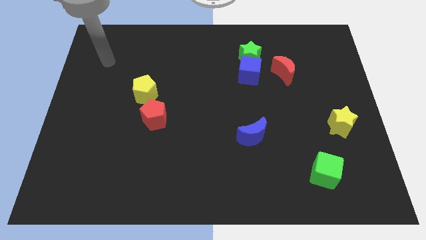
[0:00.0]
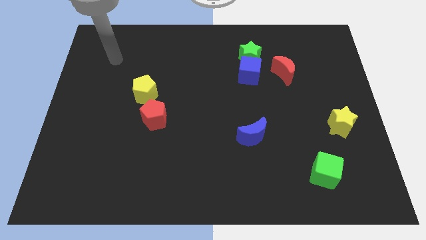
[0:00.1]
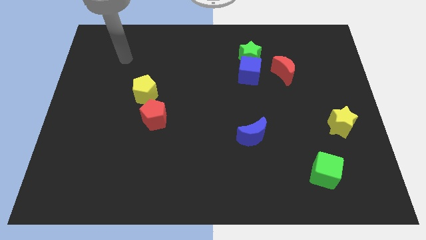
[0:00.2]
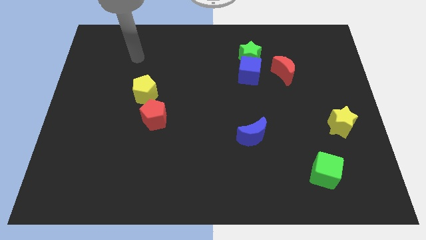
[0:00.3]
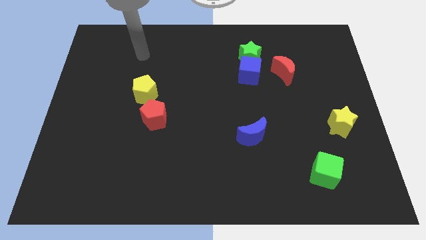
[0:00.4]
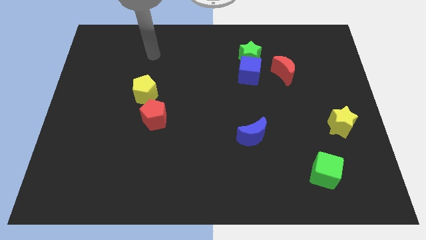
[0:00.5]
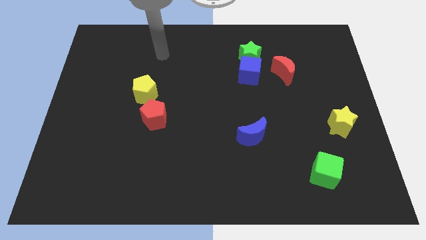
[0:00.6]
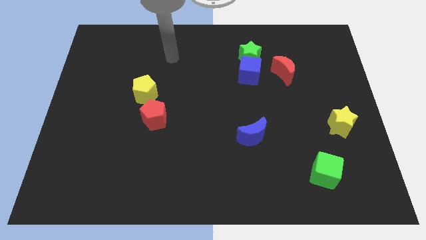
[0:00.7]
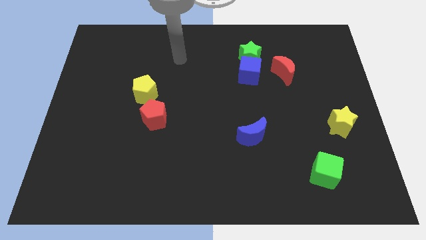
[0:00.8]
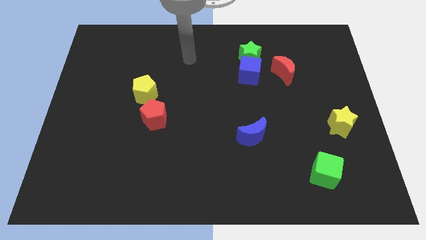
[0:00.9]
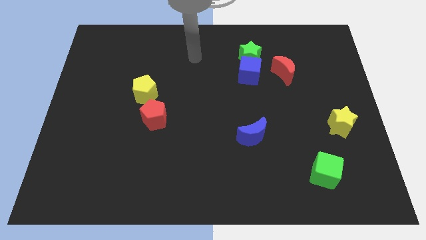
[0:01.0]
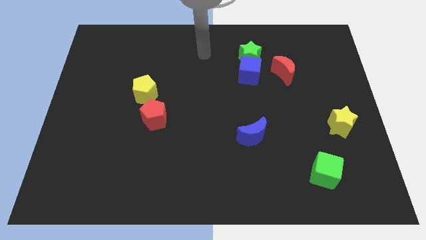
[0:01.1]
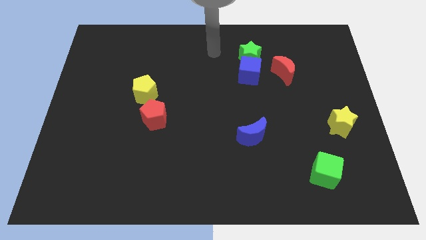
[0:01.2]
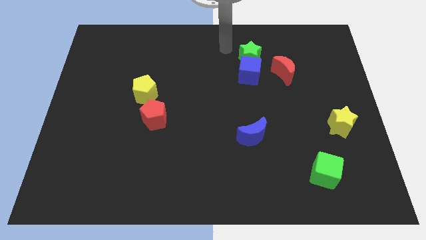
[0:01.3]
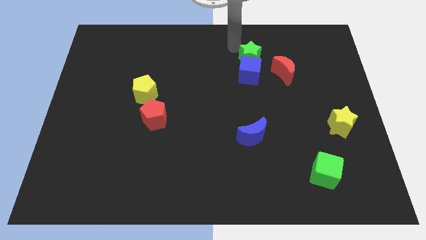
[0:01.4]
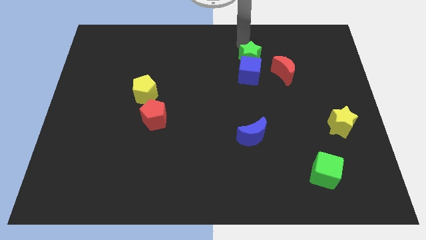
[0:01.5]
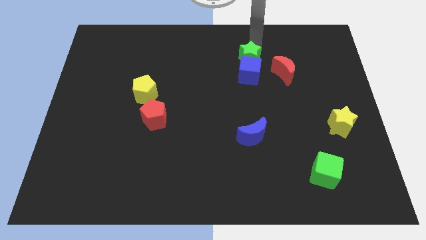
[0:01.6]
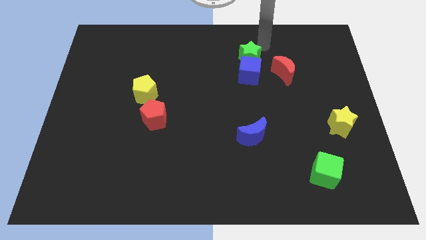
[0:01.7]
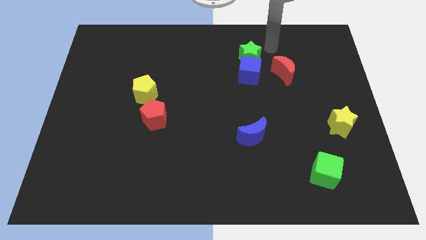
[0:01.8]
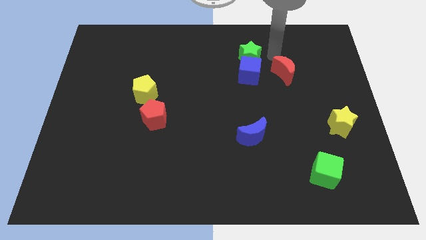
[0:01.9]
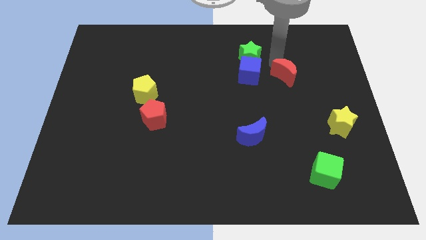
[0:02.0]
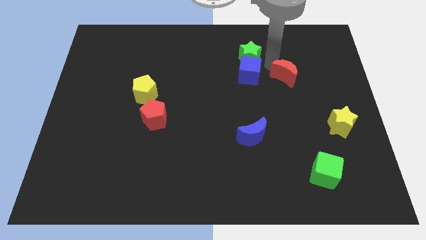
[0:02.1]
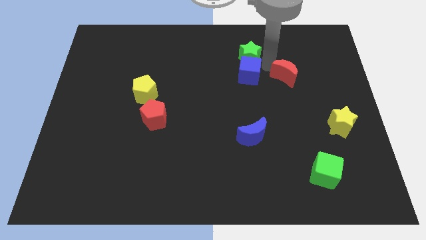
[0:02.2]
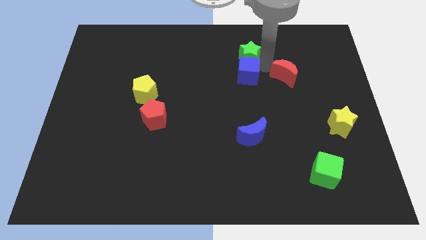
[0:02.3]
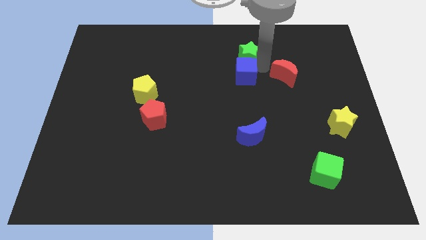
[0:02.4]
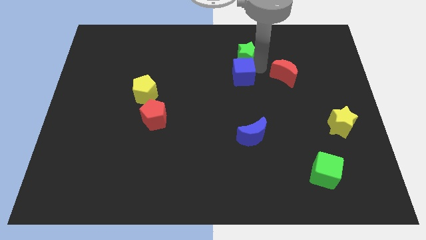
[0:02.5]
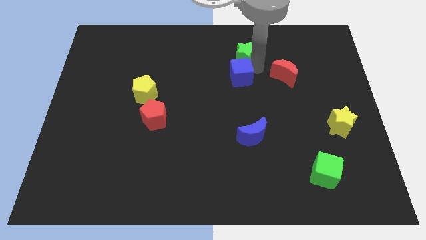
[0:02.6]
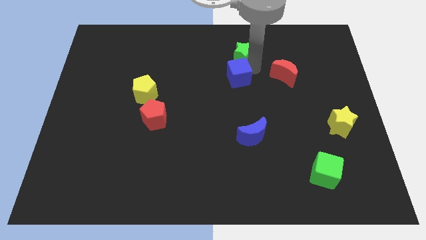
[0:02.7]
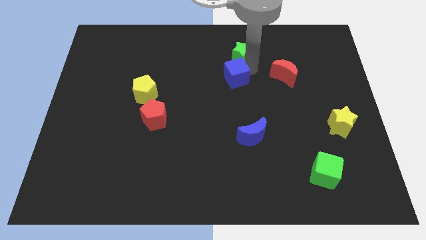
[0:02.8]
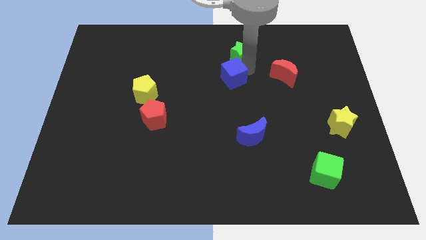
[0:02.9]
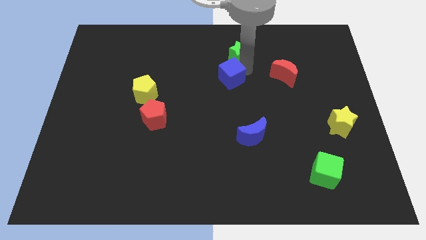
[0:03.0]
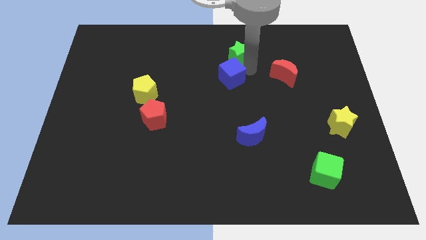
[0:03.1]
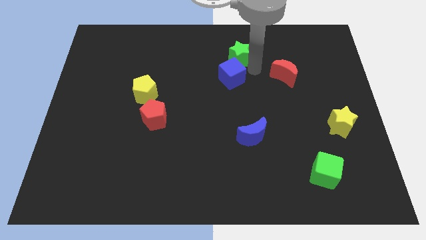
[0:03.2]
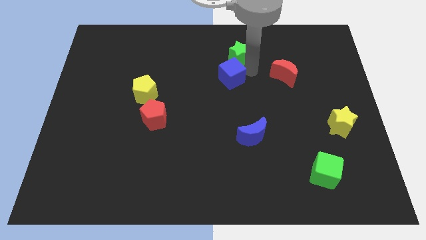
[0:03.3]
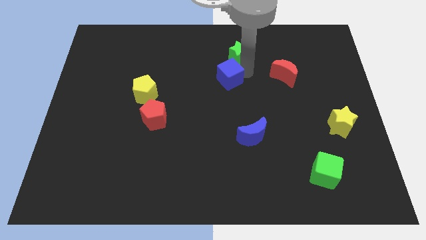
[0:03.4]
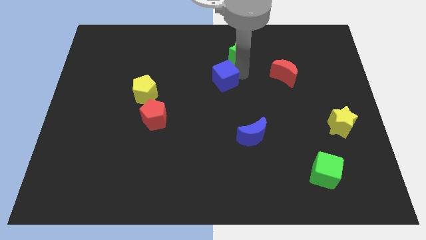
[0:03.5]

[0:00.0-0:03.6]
separate the blue cube from the green star and red moon

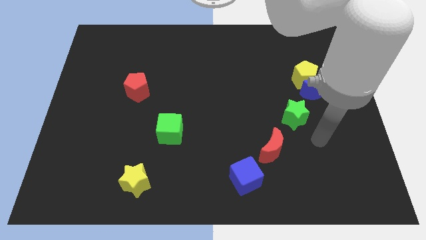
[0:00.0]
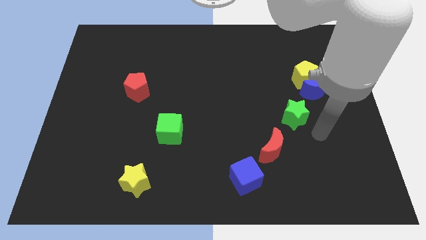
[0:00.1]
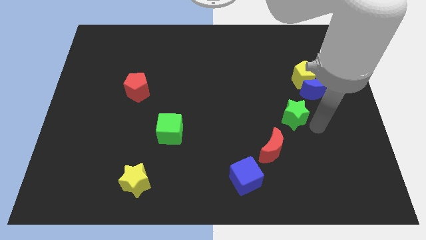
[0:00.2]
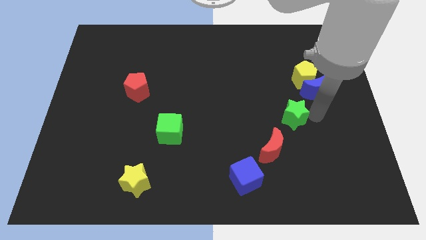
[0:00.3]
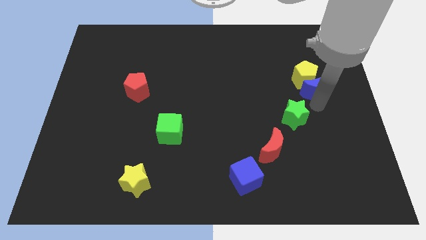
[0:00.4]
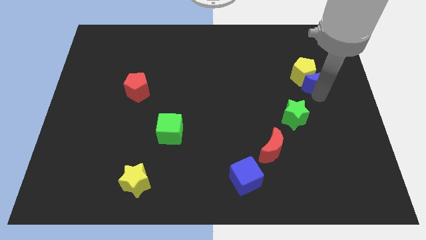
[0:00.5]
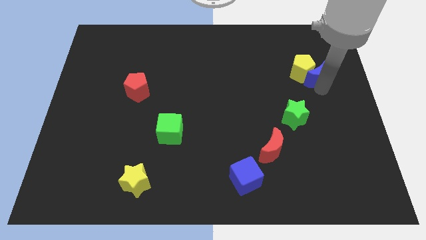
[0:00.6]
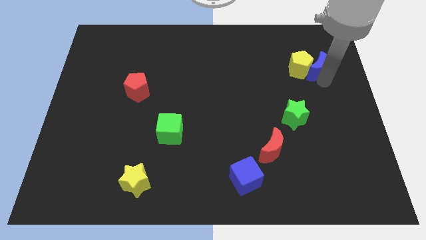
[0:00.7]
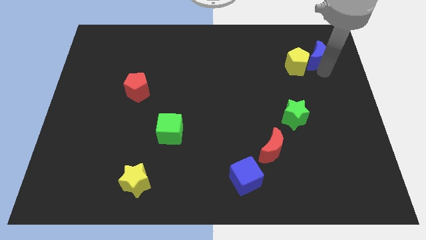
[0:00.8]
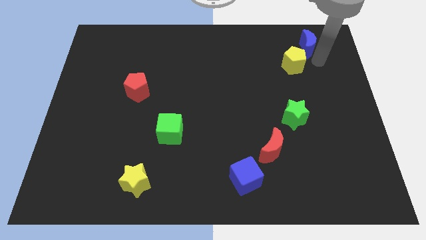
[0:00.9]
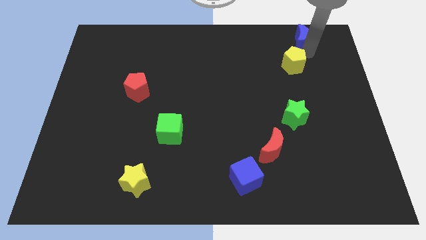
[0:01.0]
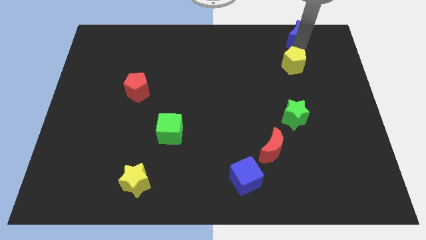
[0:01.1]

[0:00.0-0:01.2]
separate the yellow pentagon from the blue moon

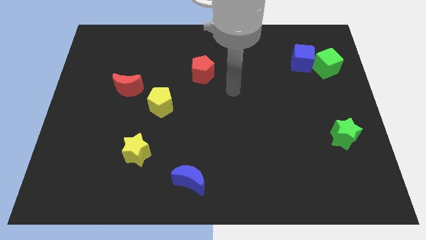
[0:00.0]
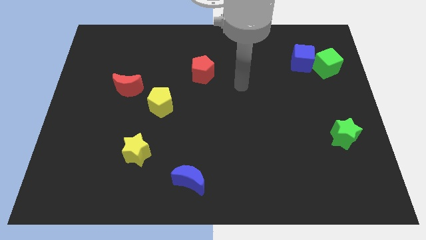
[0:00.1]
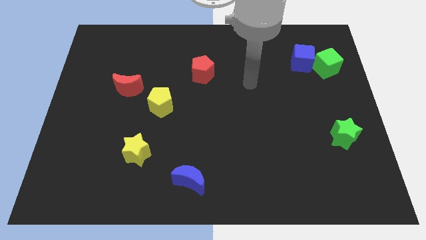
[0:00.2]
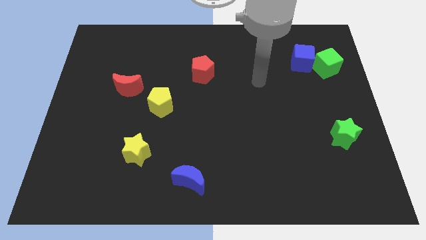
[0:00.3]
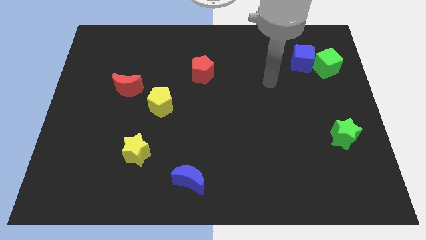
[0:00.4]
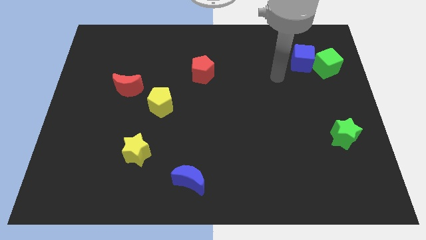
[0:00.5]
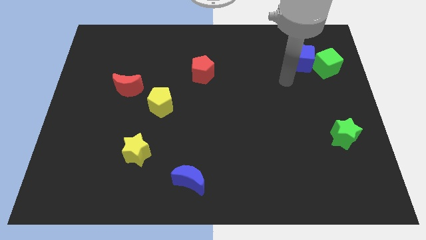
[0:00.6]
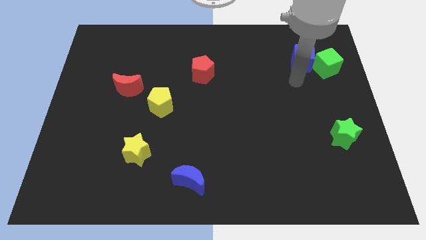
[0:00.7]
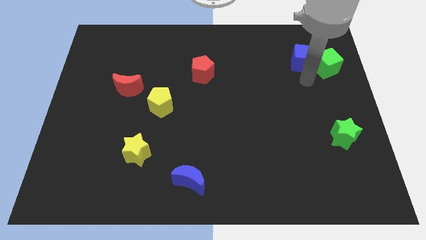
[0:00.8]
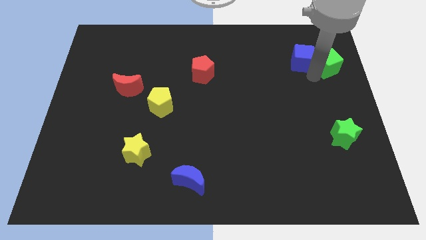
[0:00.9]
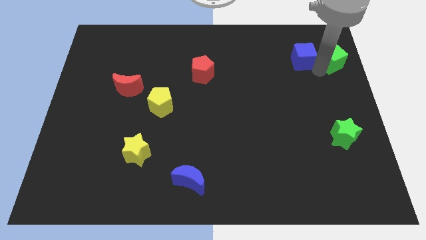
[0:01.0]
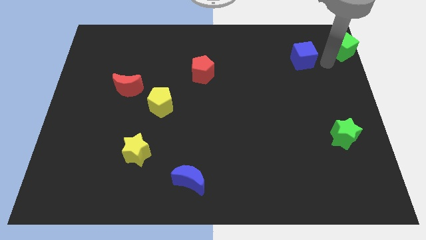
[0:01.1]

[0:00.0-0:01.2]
move the blue cube away from the green cube

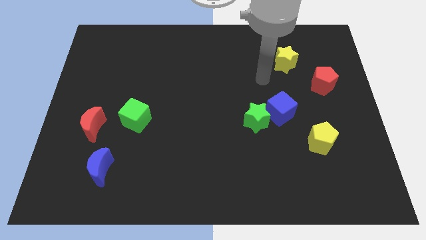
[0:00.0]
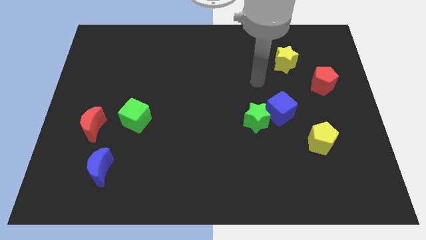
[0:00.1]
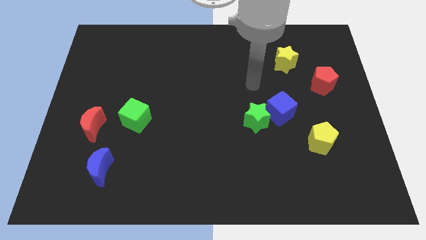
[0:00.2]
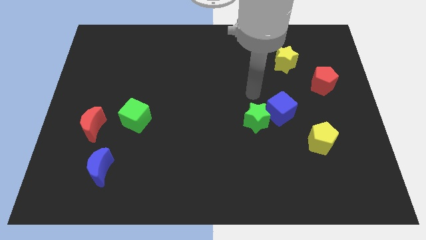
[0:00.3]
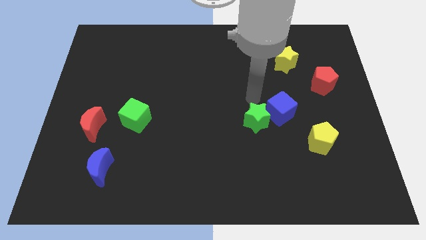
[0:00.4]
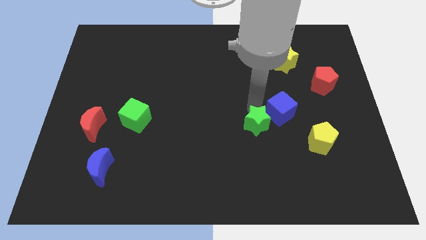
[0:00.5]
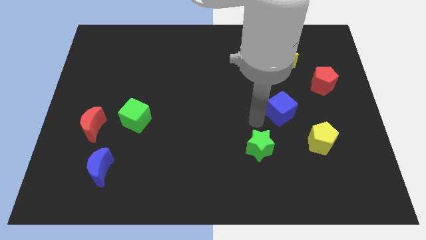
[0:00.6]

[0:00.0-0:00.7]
move the blue cube away from the green star

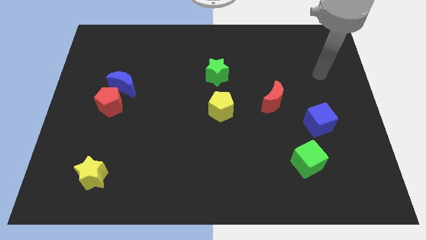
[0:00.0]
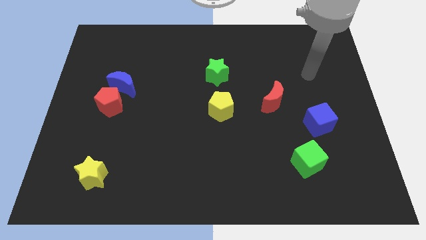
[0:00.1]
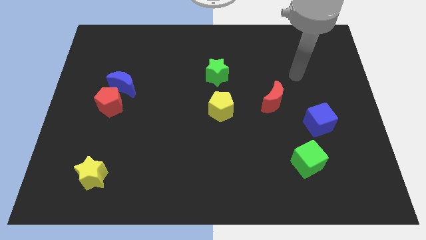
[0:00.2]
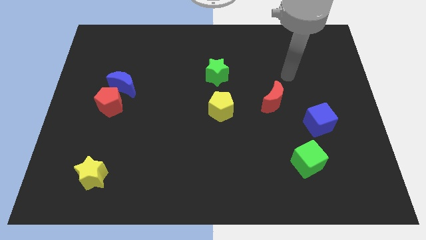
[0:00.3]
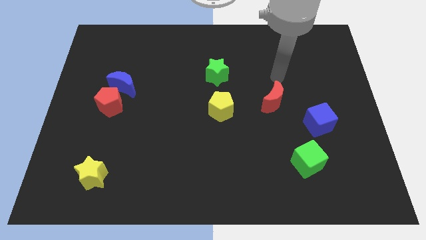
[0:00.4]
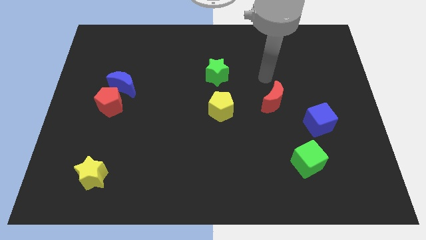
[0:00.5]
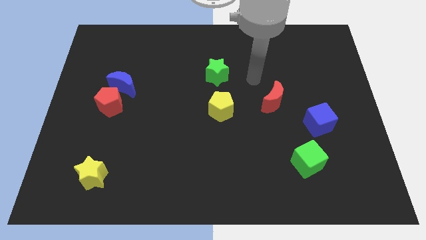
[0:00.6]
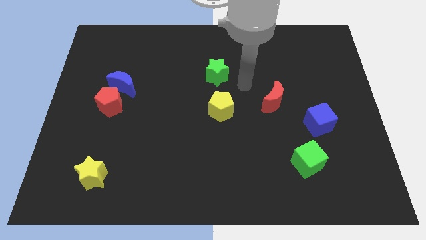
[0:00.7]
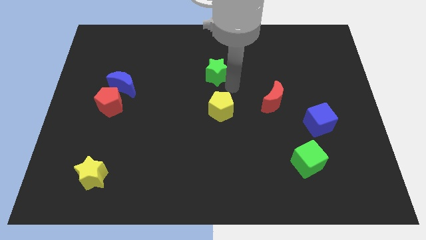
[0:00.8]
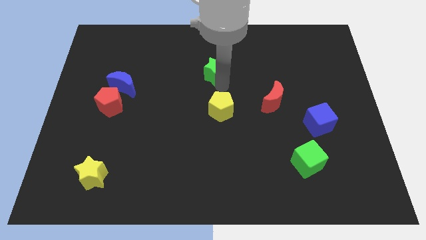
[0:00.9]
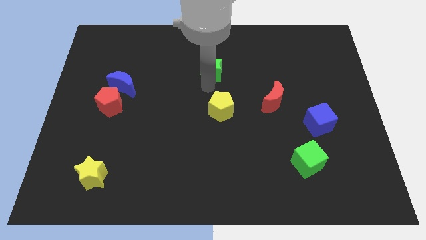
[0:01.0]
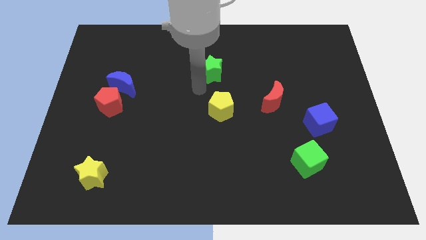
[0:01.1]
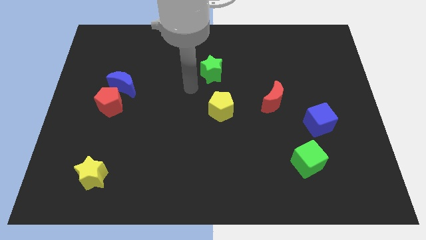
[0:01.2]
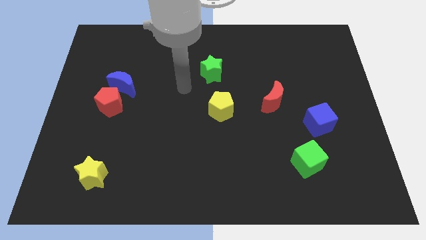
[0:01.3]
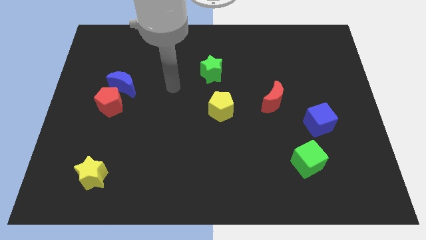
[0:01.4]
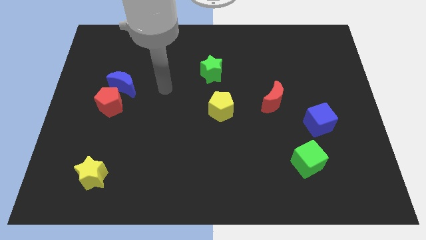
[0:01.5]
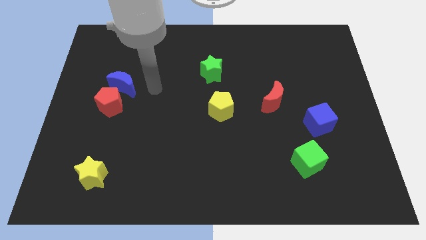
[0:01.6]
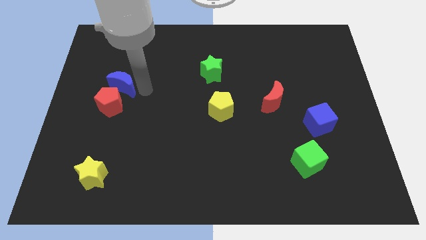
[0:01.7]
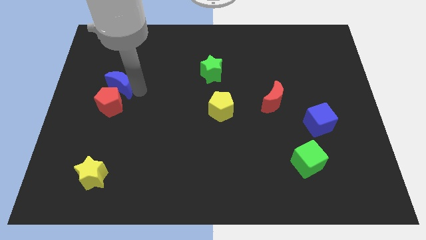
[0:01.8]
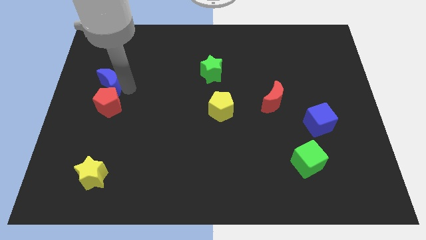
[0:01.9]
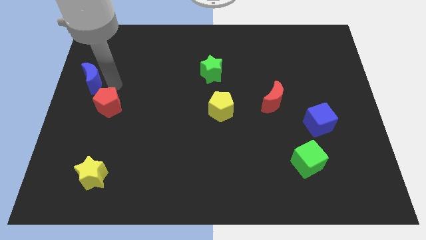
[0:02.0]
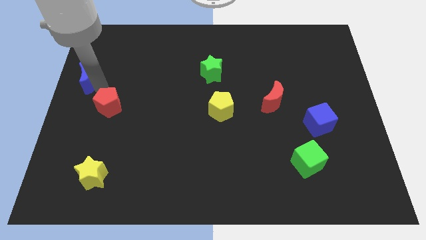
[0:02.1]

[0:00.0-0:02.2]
separate the red pentagon from the blue moon

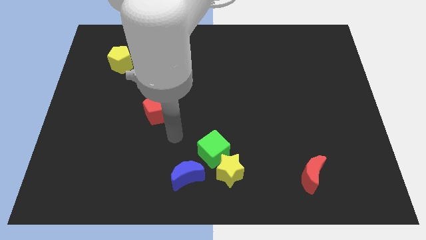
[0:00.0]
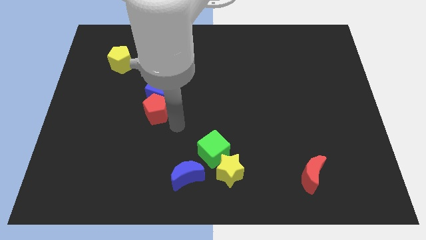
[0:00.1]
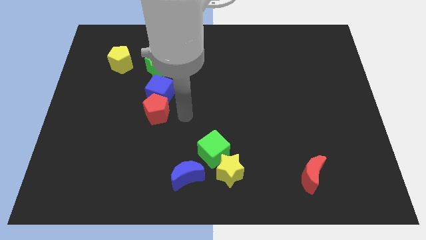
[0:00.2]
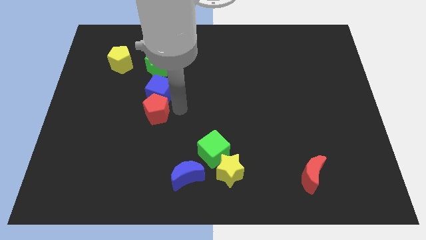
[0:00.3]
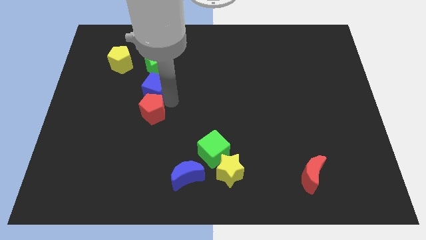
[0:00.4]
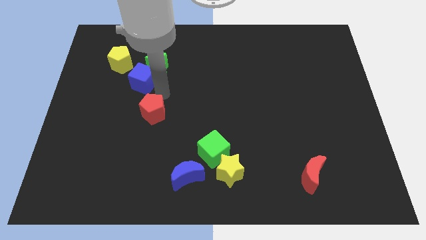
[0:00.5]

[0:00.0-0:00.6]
pull the red pentagon apart from the blue cube
